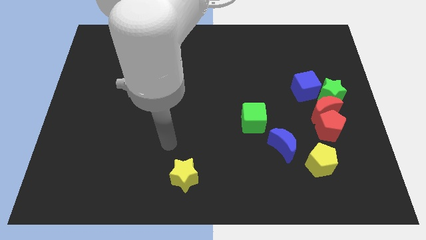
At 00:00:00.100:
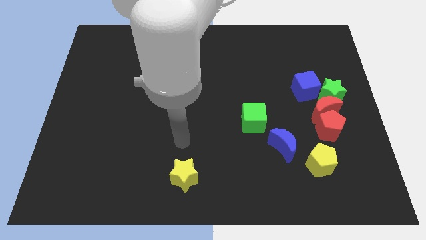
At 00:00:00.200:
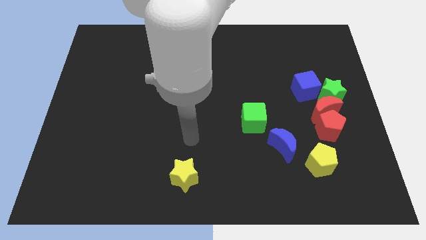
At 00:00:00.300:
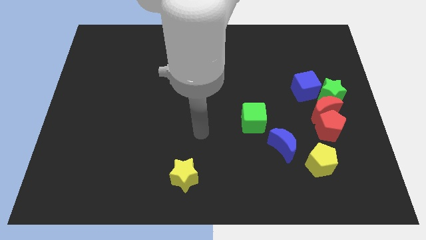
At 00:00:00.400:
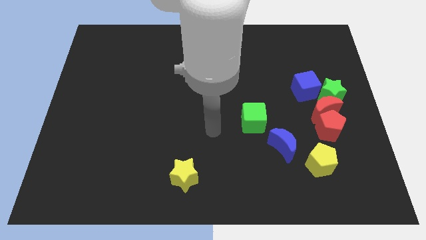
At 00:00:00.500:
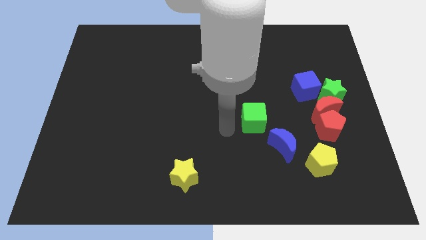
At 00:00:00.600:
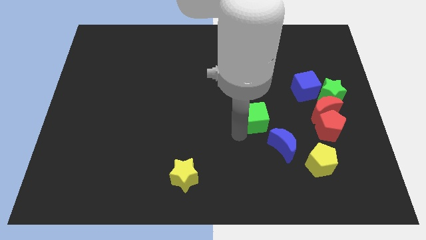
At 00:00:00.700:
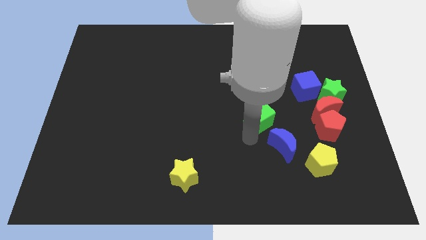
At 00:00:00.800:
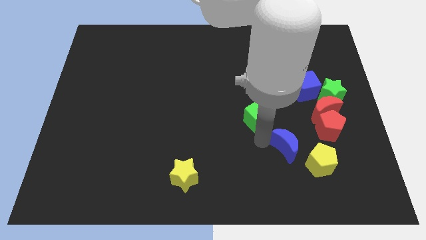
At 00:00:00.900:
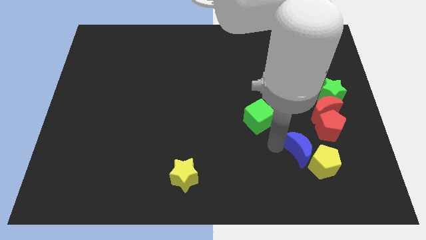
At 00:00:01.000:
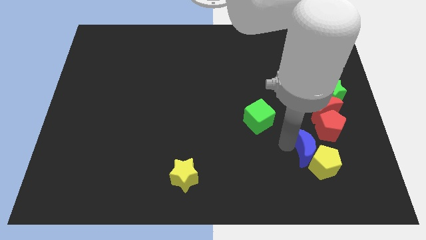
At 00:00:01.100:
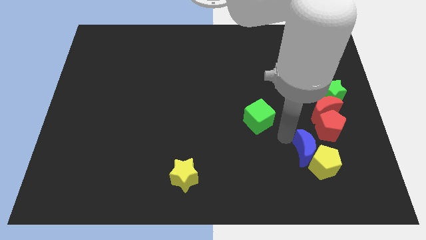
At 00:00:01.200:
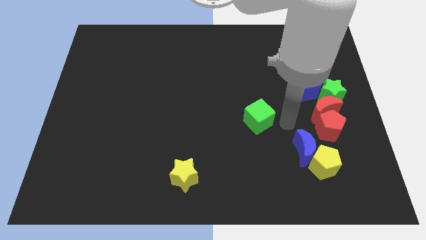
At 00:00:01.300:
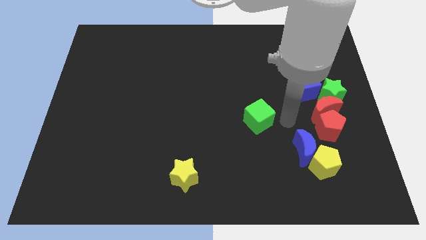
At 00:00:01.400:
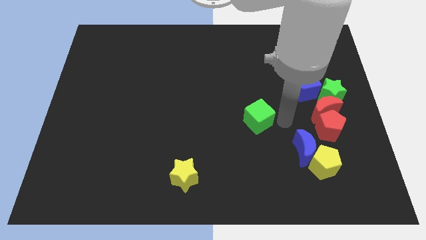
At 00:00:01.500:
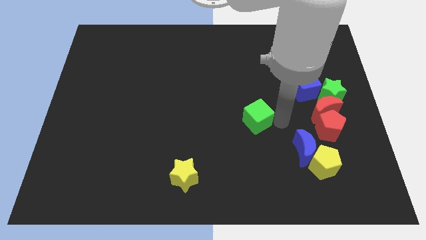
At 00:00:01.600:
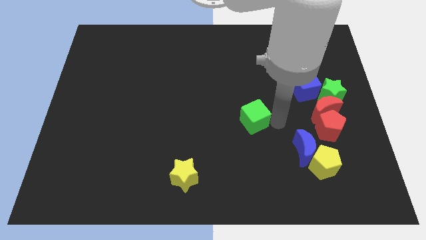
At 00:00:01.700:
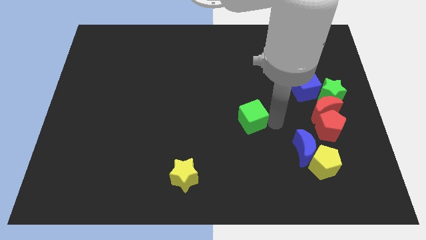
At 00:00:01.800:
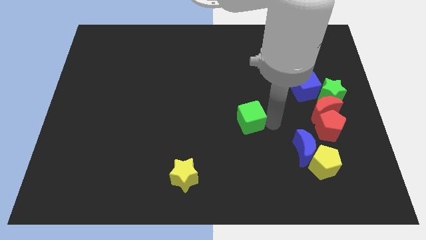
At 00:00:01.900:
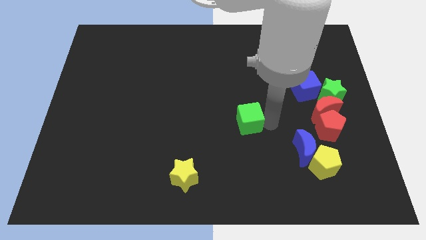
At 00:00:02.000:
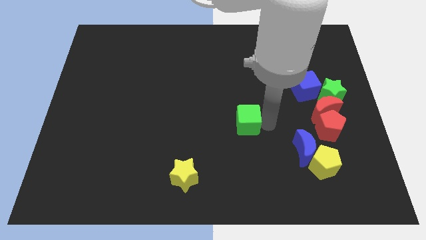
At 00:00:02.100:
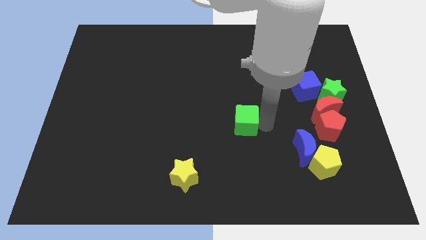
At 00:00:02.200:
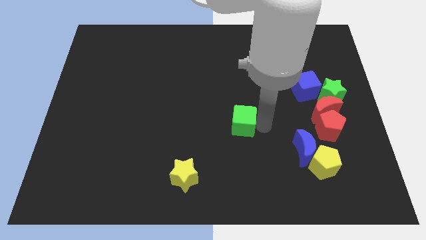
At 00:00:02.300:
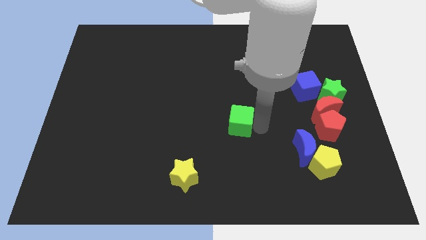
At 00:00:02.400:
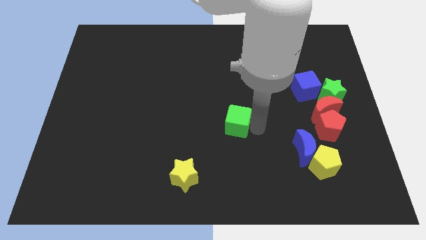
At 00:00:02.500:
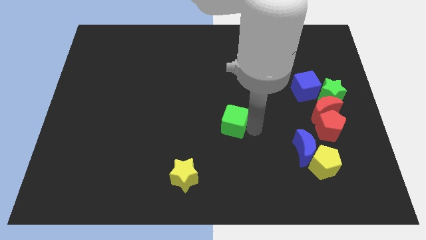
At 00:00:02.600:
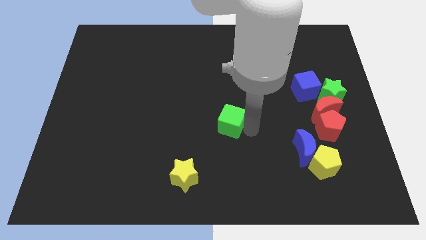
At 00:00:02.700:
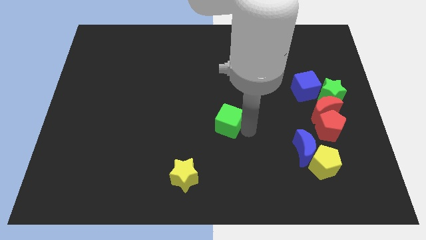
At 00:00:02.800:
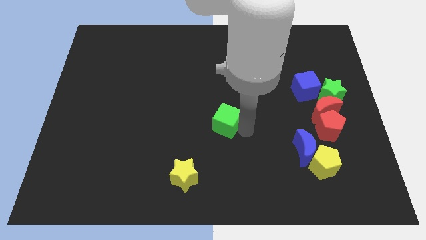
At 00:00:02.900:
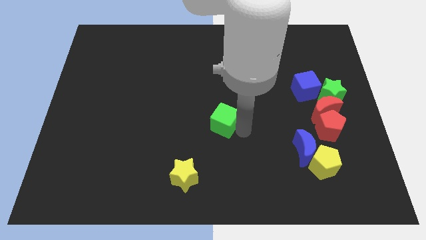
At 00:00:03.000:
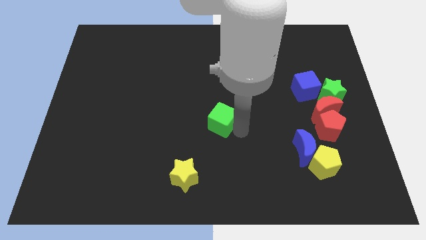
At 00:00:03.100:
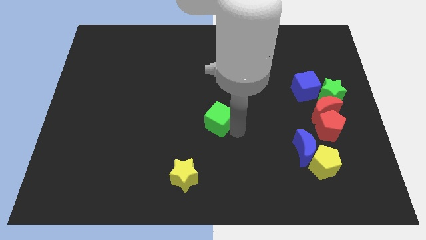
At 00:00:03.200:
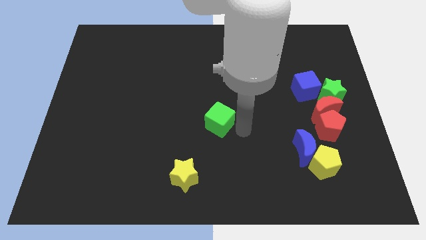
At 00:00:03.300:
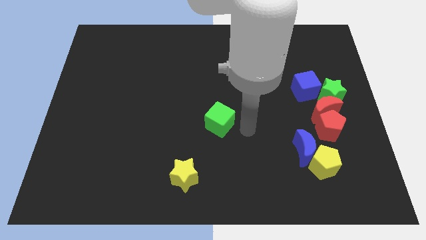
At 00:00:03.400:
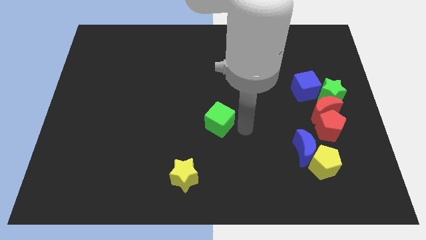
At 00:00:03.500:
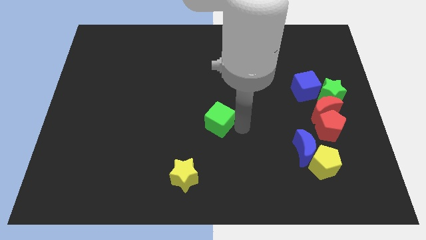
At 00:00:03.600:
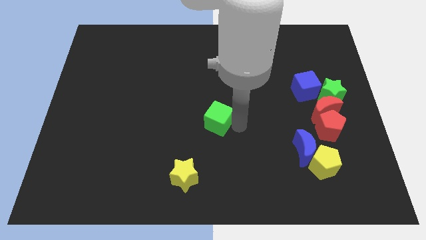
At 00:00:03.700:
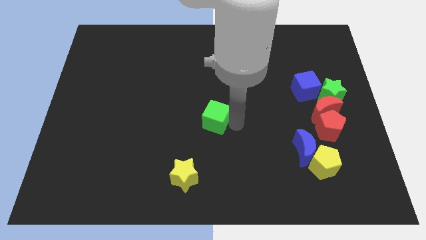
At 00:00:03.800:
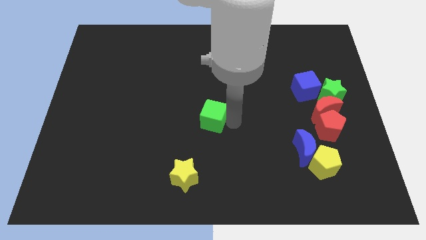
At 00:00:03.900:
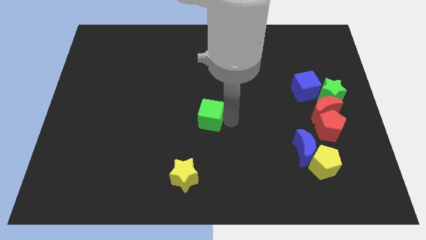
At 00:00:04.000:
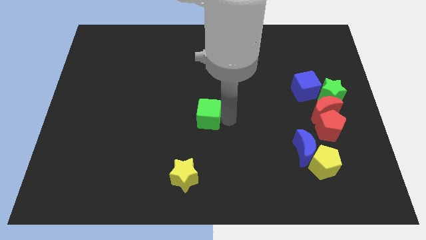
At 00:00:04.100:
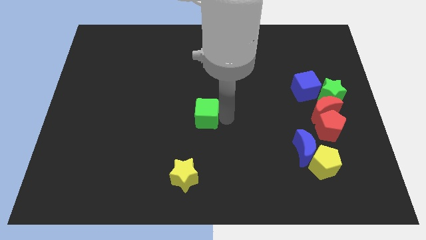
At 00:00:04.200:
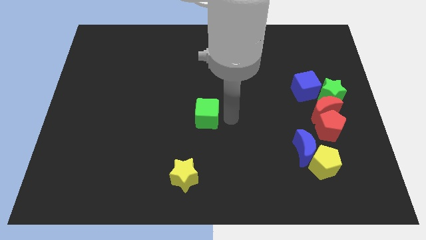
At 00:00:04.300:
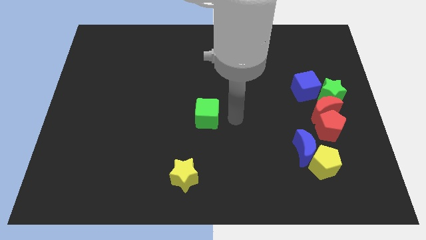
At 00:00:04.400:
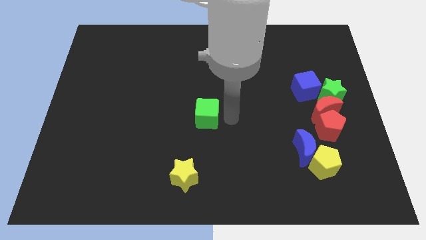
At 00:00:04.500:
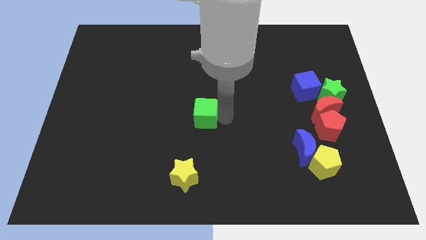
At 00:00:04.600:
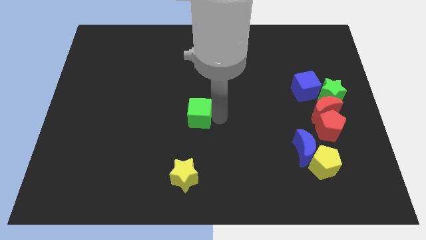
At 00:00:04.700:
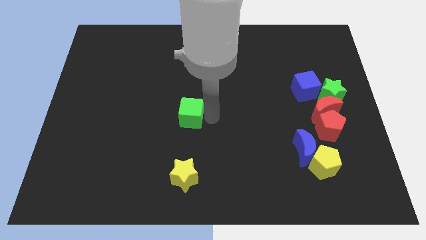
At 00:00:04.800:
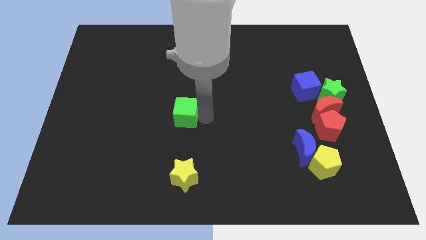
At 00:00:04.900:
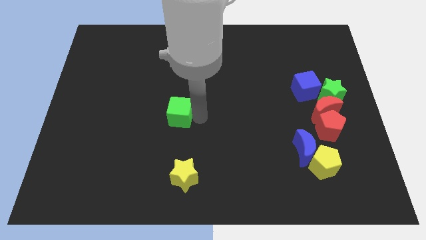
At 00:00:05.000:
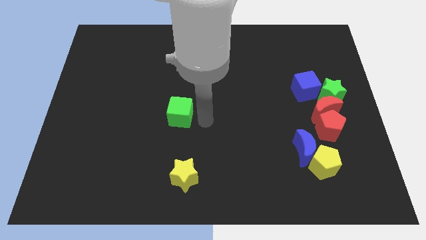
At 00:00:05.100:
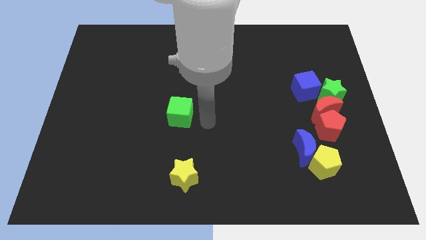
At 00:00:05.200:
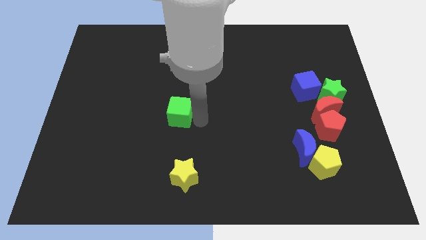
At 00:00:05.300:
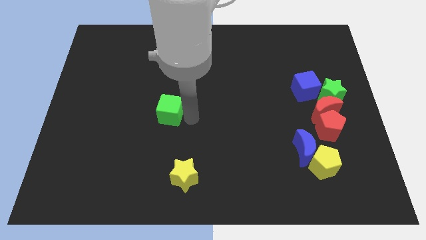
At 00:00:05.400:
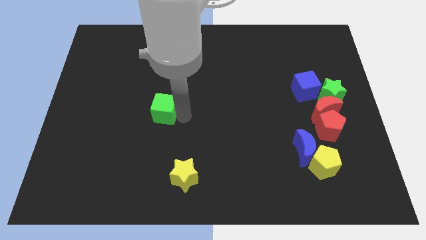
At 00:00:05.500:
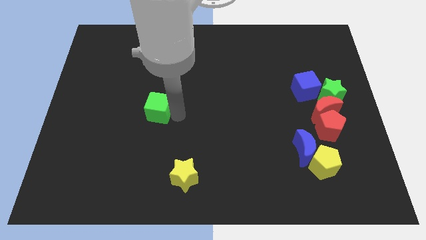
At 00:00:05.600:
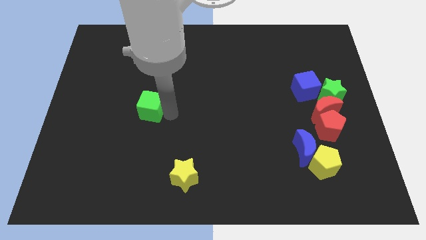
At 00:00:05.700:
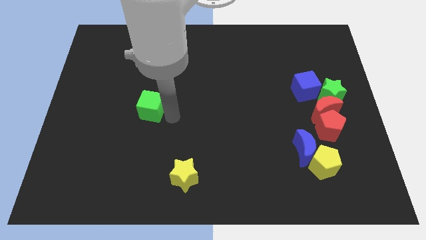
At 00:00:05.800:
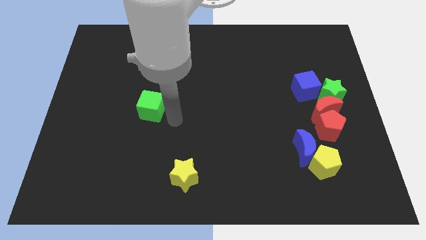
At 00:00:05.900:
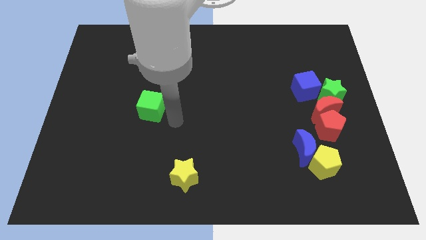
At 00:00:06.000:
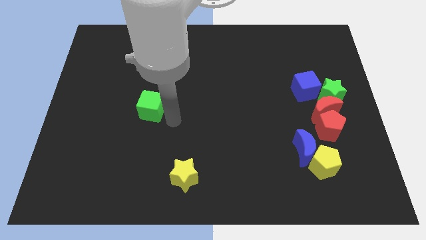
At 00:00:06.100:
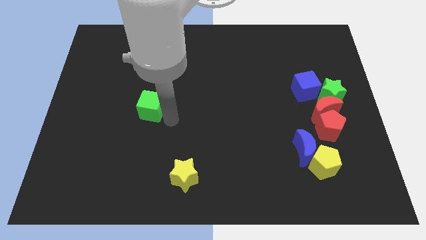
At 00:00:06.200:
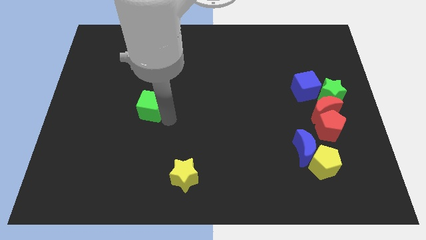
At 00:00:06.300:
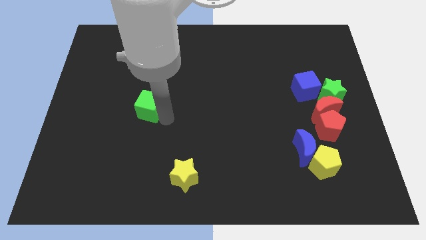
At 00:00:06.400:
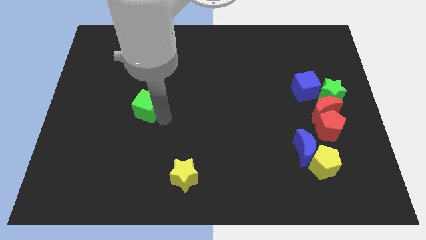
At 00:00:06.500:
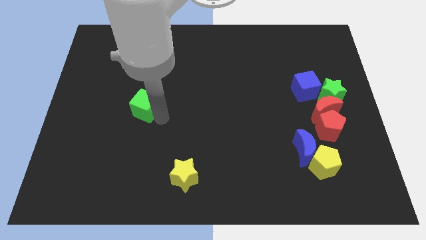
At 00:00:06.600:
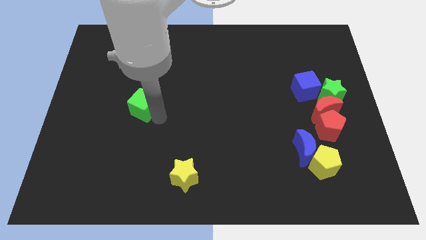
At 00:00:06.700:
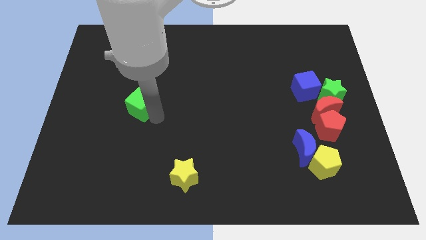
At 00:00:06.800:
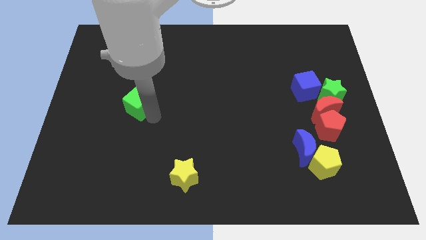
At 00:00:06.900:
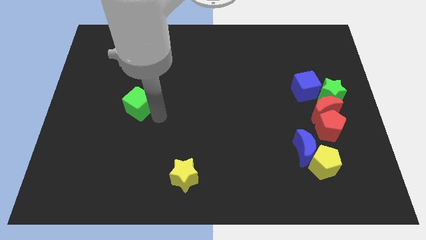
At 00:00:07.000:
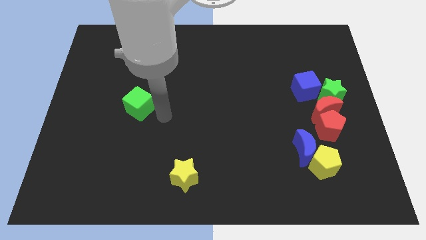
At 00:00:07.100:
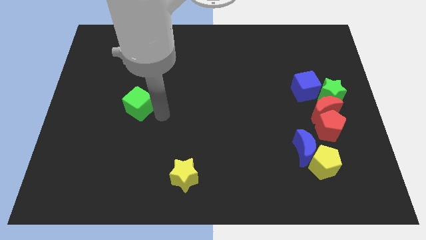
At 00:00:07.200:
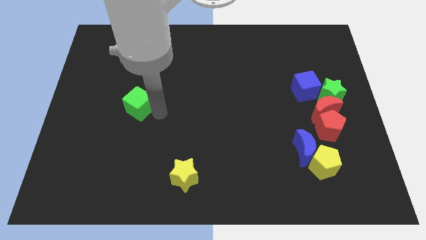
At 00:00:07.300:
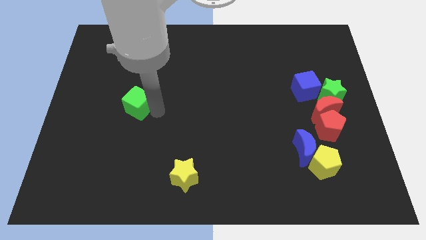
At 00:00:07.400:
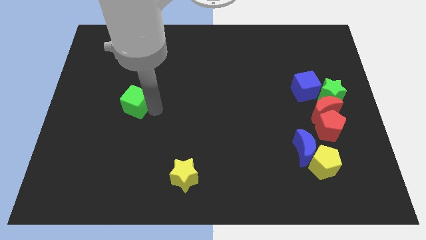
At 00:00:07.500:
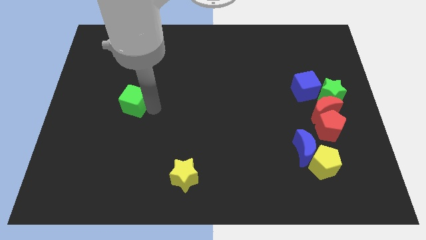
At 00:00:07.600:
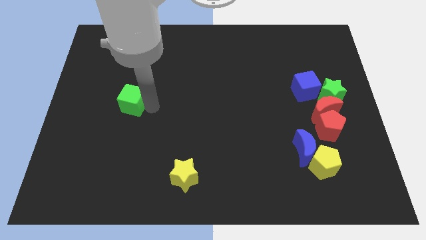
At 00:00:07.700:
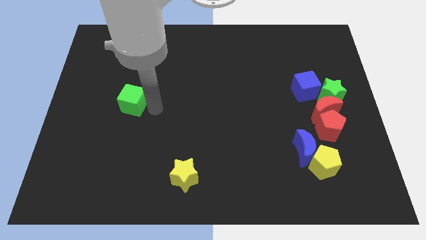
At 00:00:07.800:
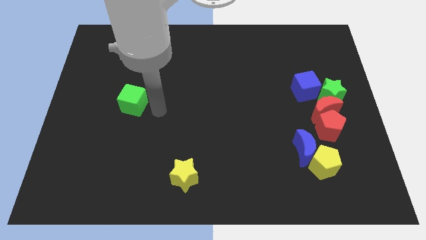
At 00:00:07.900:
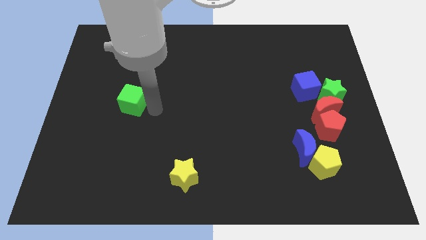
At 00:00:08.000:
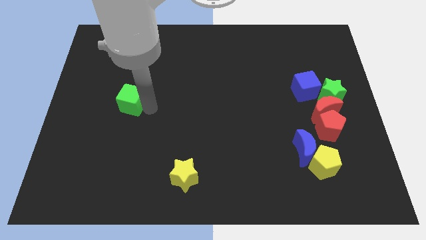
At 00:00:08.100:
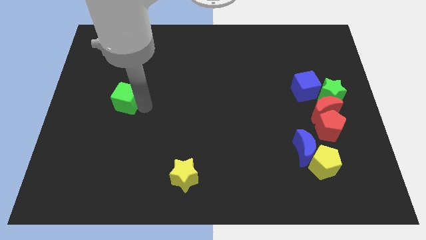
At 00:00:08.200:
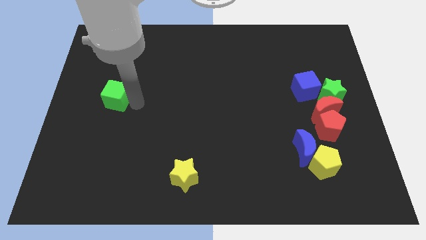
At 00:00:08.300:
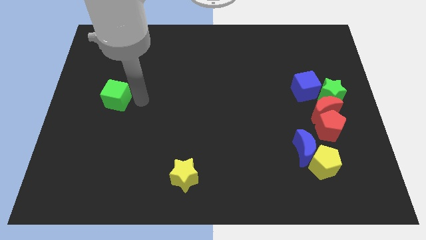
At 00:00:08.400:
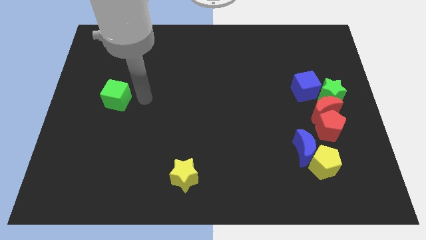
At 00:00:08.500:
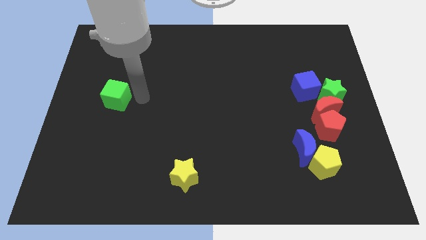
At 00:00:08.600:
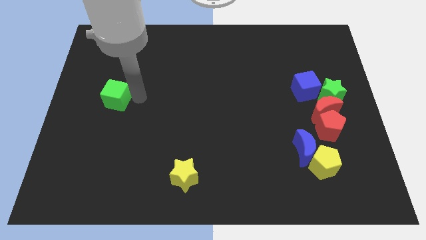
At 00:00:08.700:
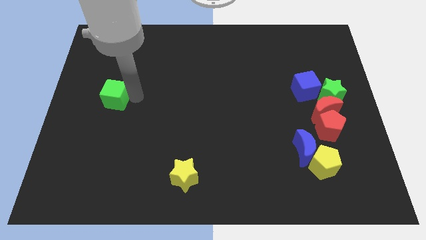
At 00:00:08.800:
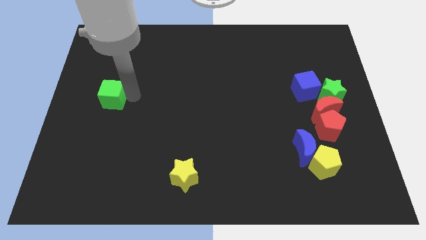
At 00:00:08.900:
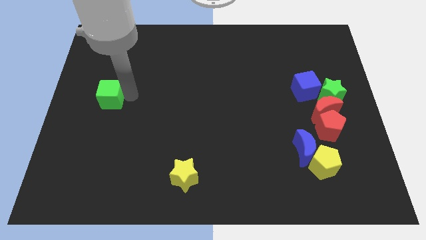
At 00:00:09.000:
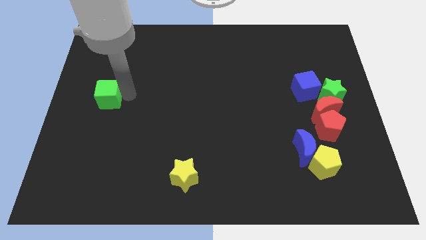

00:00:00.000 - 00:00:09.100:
push the green cube to the center left
